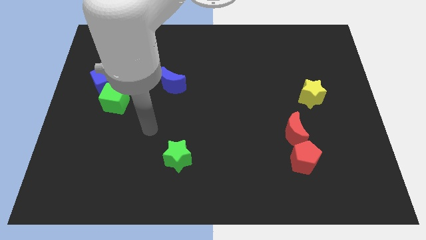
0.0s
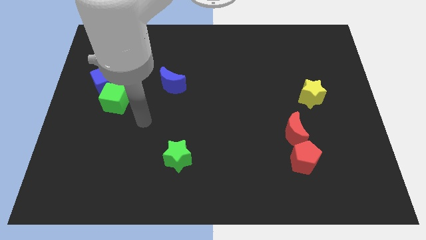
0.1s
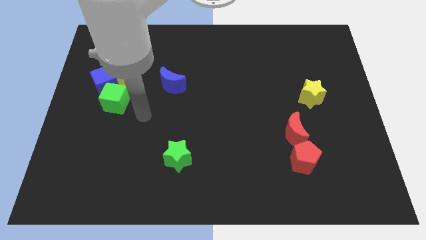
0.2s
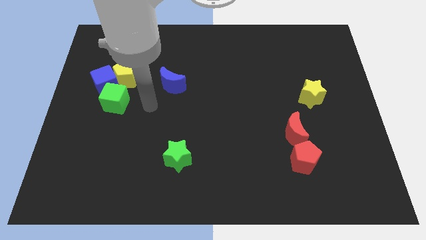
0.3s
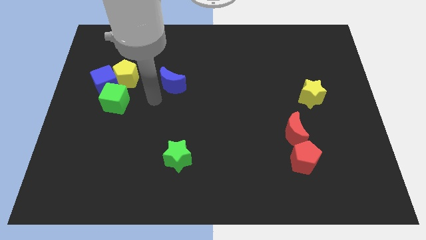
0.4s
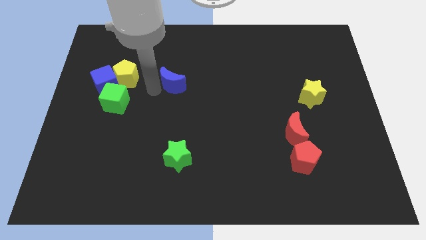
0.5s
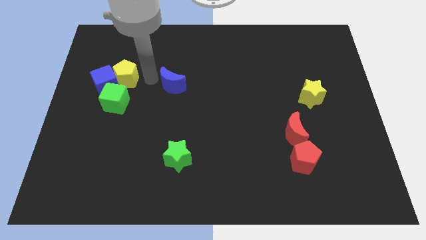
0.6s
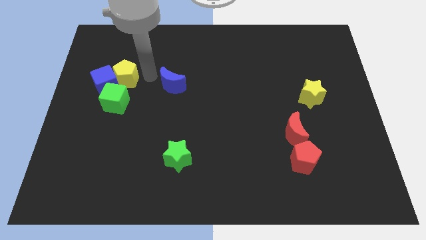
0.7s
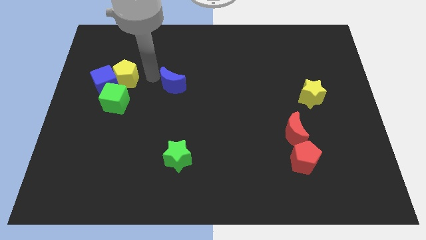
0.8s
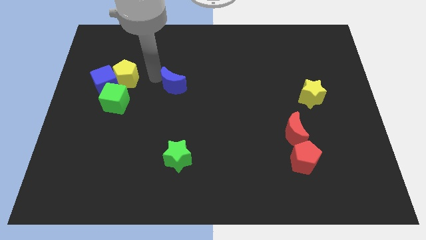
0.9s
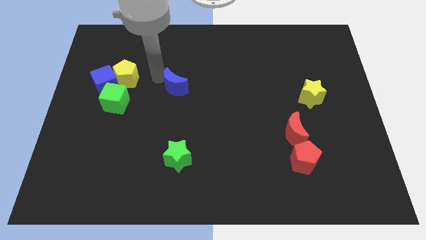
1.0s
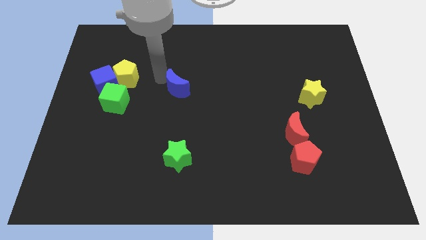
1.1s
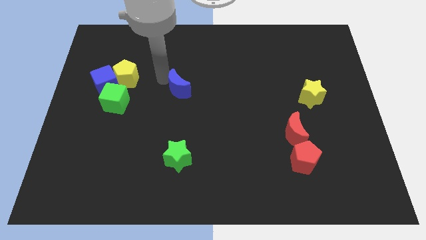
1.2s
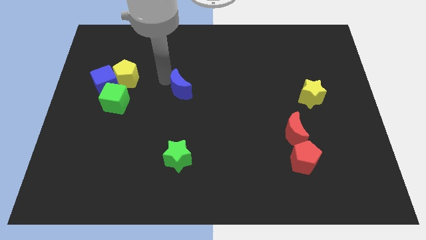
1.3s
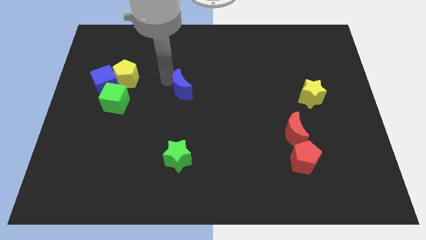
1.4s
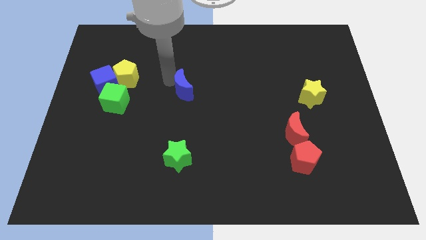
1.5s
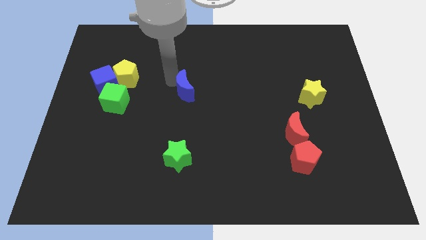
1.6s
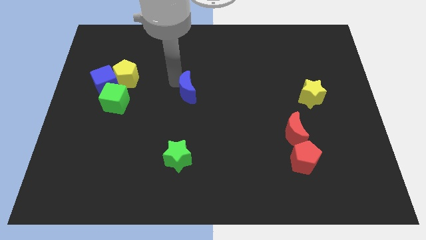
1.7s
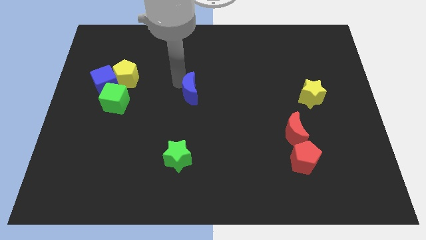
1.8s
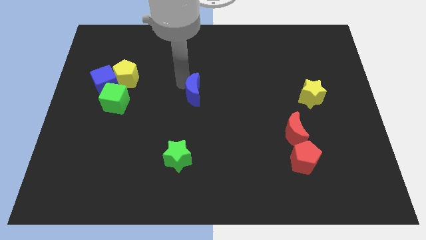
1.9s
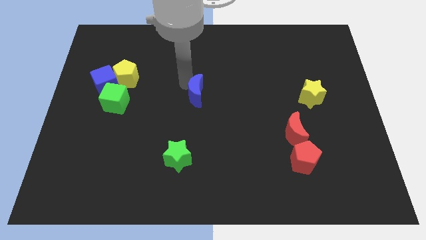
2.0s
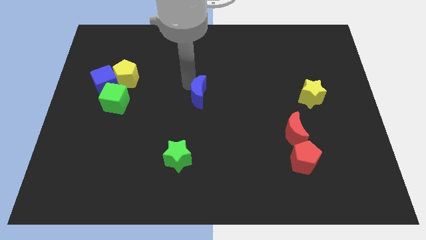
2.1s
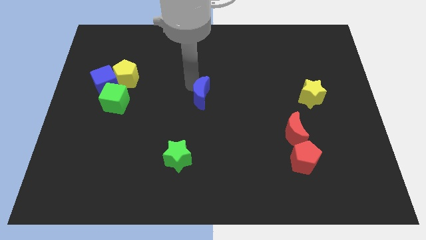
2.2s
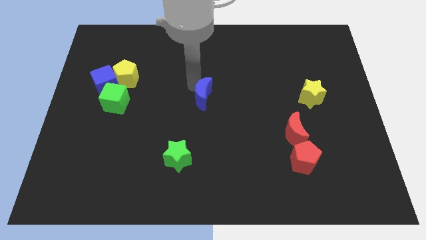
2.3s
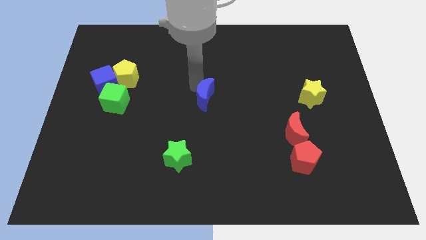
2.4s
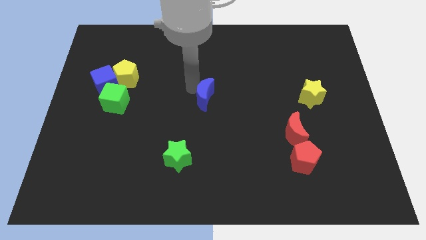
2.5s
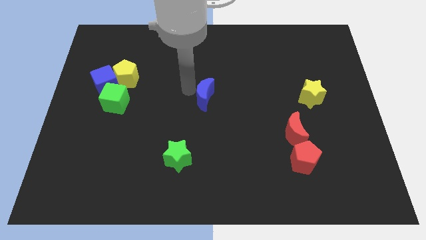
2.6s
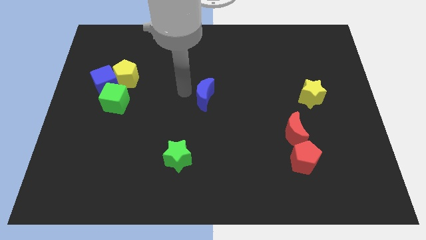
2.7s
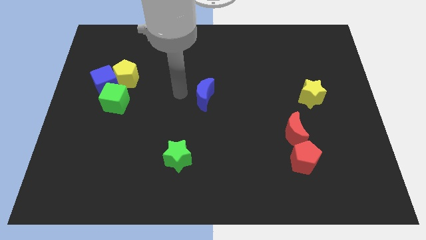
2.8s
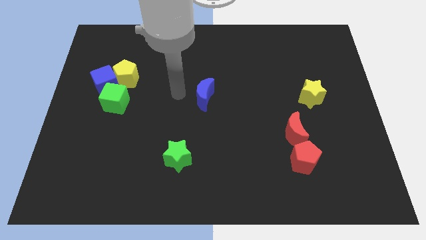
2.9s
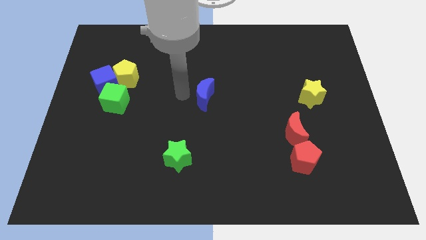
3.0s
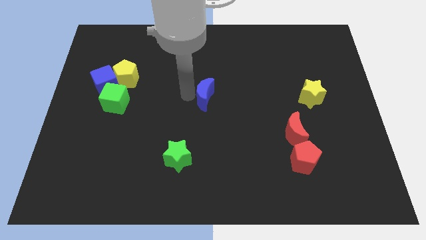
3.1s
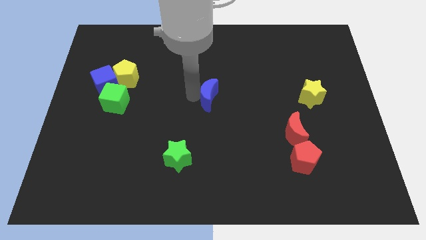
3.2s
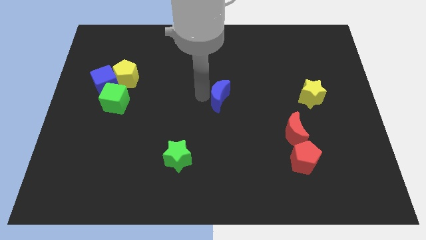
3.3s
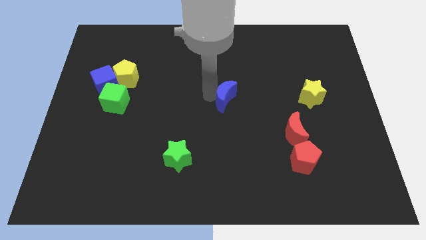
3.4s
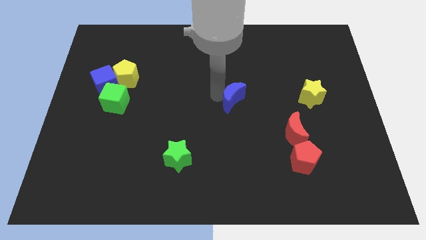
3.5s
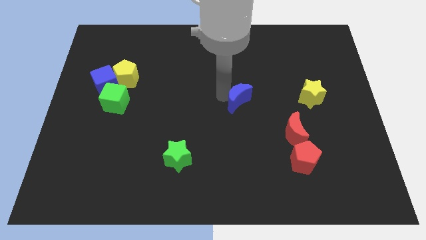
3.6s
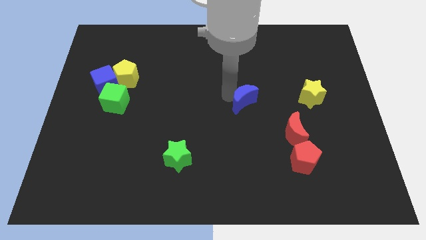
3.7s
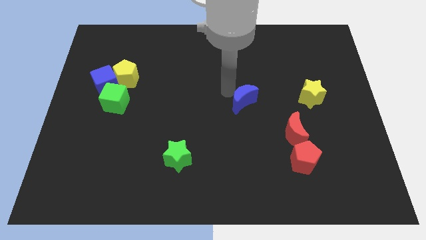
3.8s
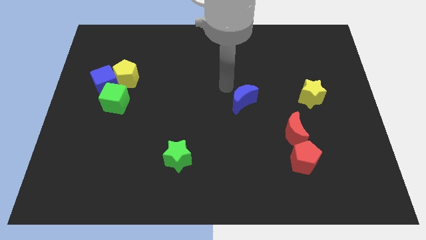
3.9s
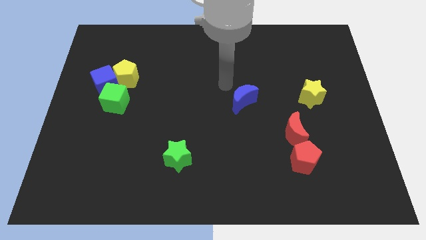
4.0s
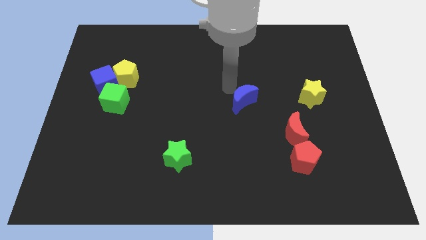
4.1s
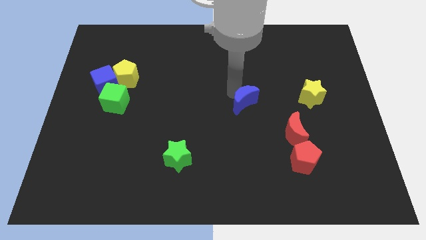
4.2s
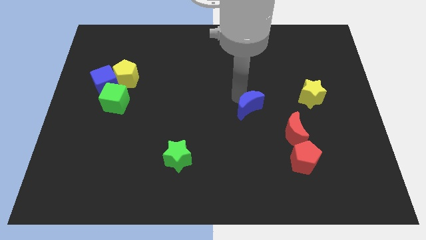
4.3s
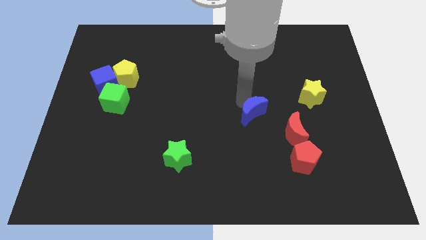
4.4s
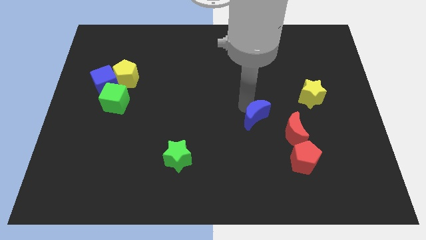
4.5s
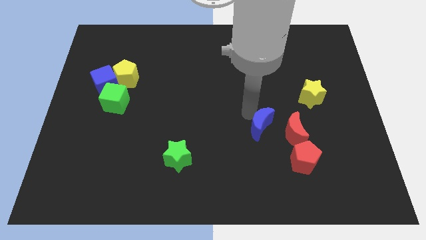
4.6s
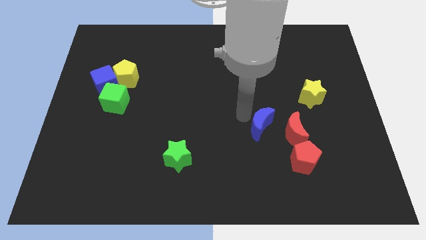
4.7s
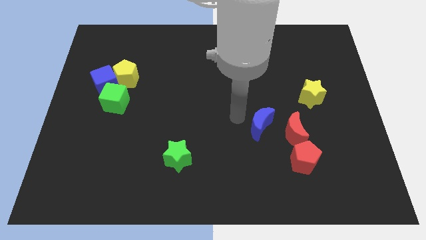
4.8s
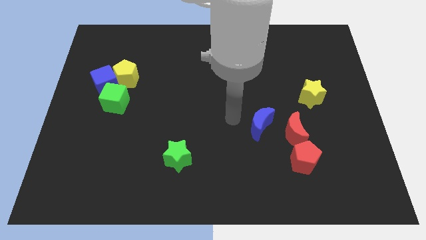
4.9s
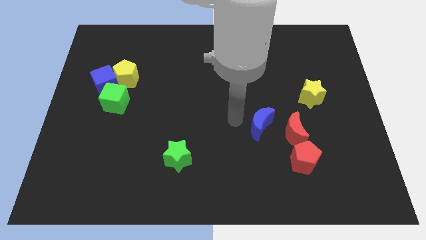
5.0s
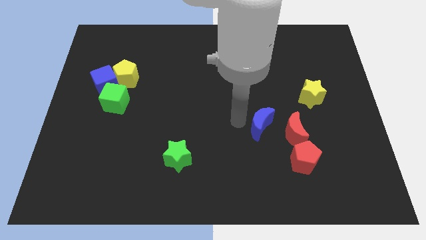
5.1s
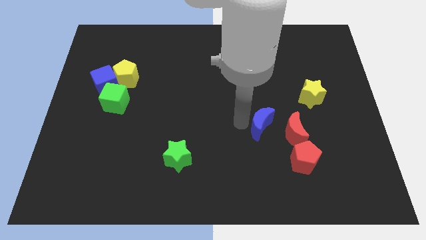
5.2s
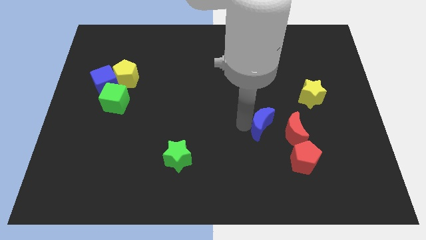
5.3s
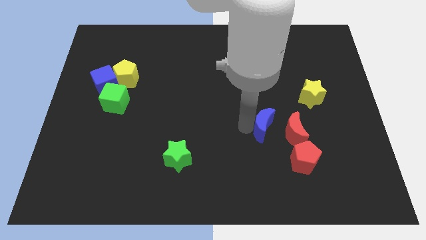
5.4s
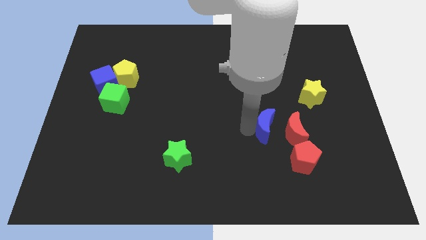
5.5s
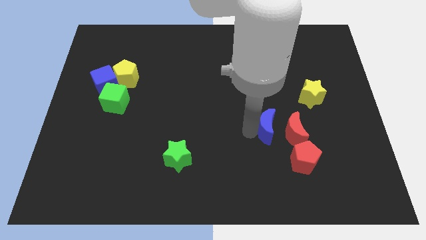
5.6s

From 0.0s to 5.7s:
put the blue moon to the red moon

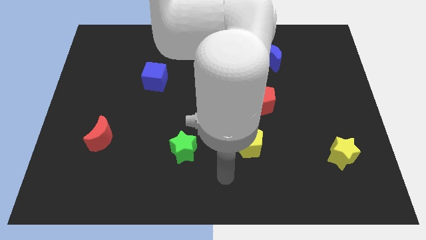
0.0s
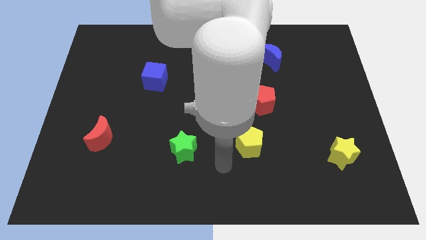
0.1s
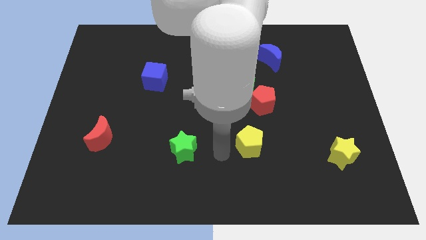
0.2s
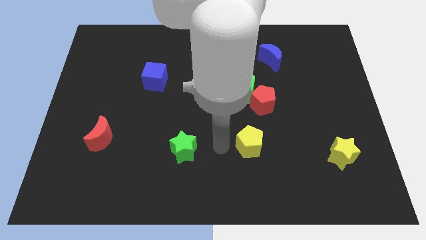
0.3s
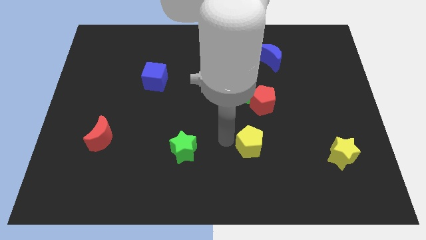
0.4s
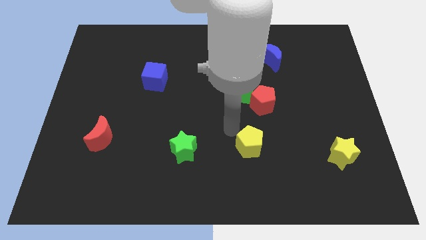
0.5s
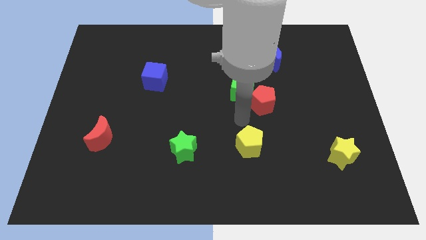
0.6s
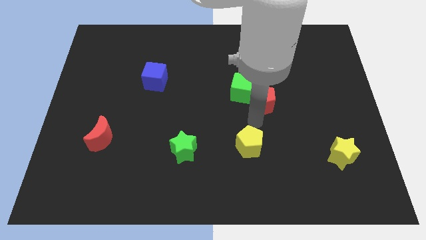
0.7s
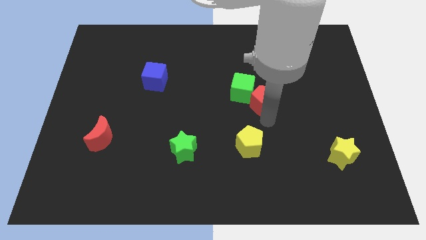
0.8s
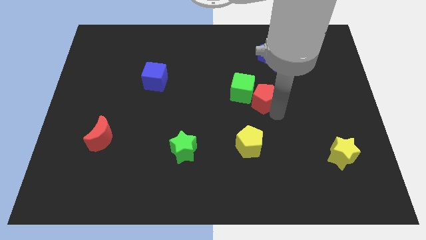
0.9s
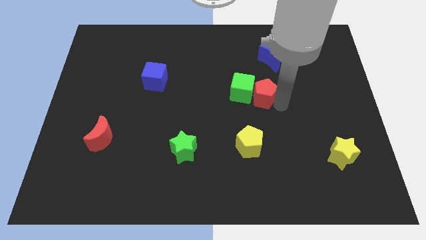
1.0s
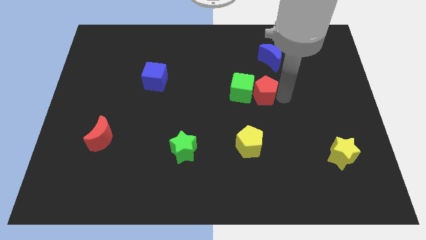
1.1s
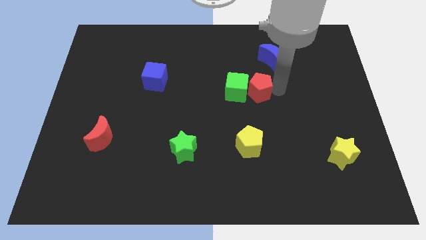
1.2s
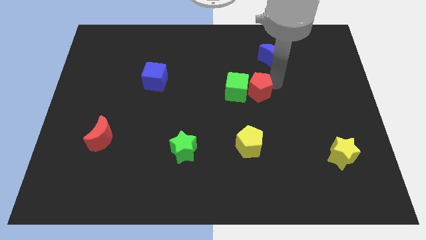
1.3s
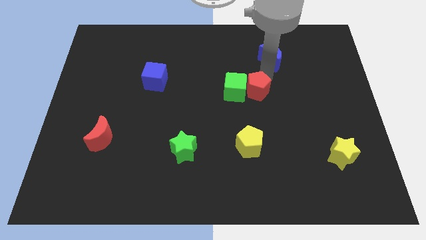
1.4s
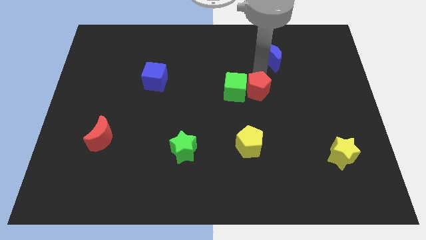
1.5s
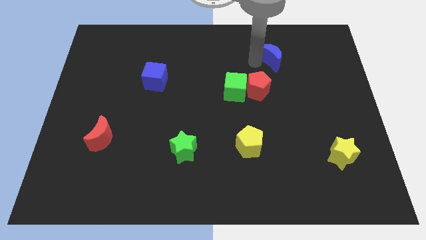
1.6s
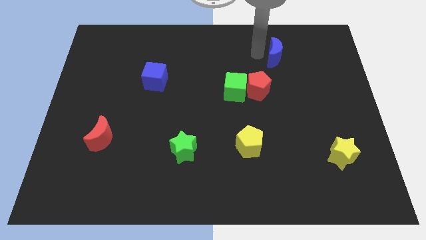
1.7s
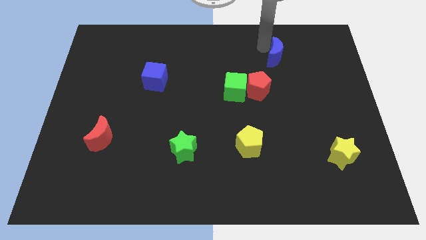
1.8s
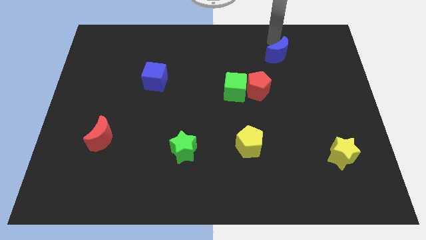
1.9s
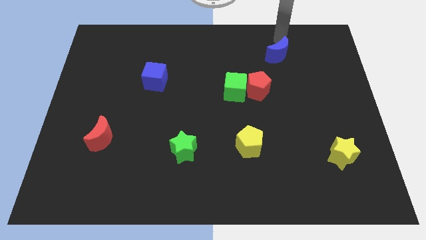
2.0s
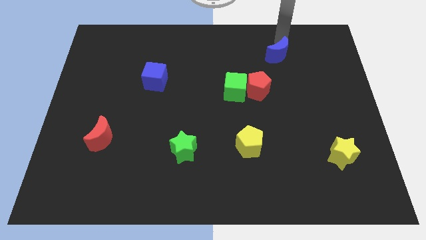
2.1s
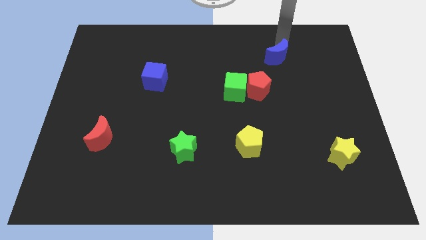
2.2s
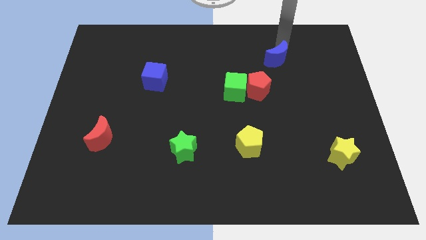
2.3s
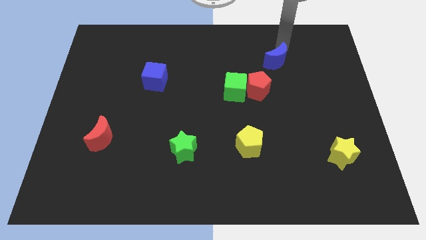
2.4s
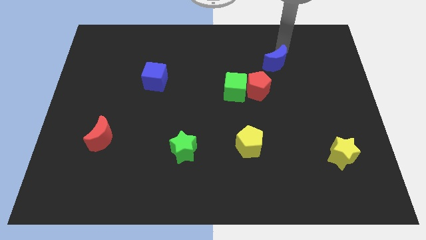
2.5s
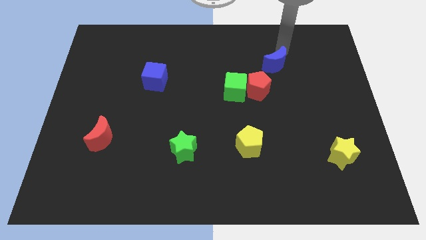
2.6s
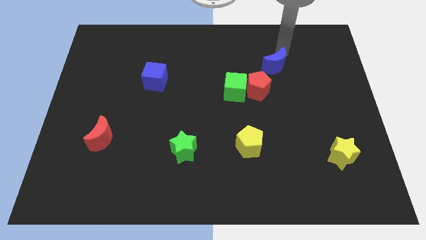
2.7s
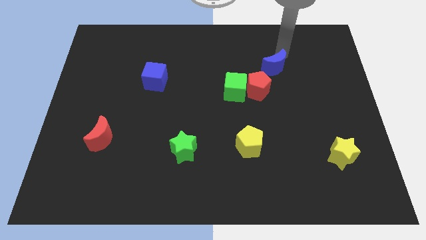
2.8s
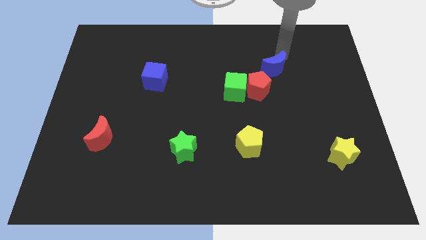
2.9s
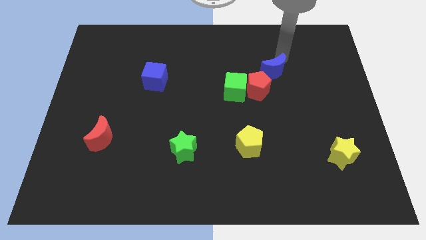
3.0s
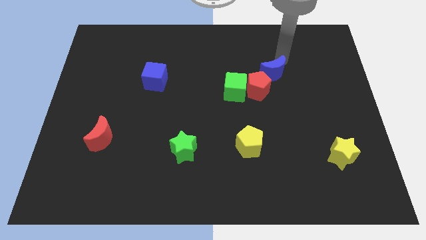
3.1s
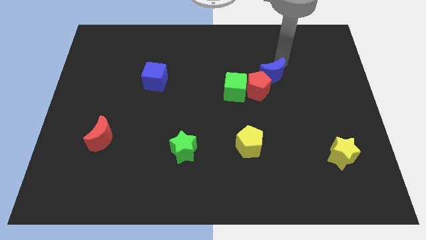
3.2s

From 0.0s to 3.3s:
push the blue moon towards the red pentagon
